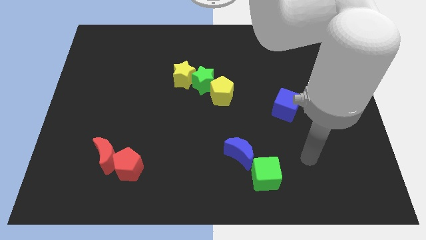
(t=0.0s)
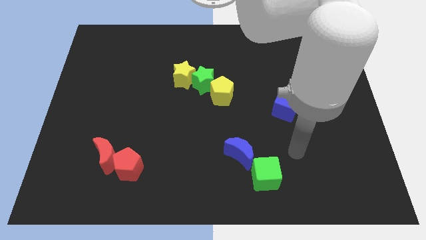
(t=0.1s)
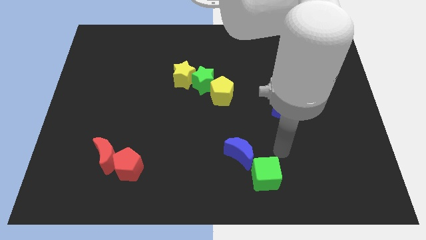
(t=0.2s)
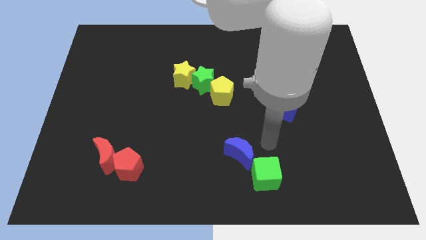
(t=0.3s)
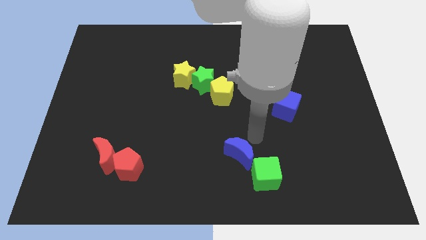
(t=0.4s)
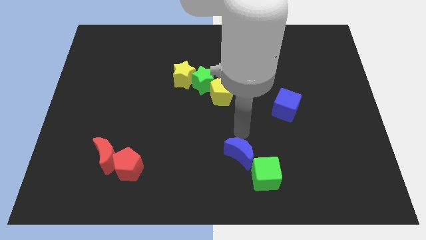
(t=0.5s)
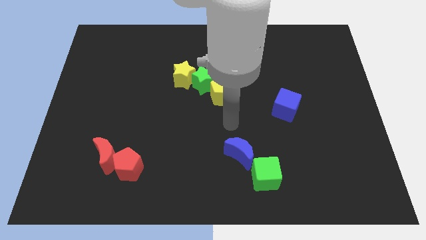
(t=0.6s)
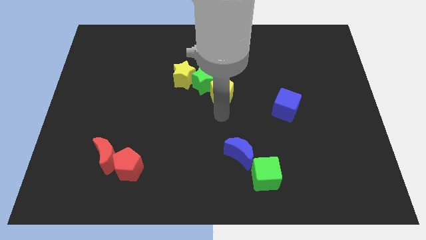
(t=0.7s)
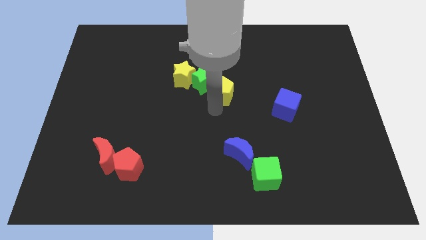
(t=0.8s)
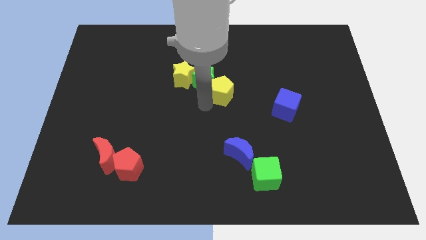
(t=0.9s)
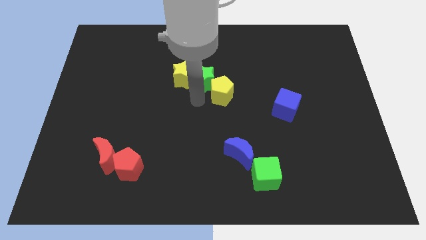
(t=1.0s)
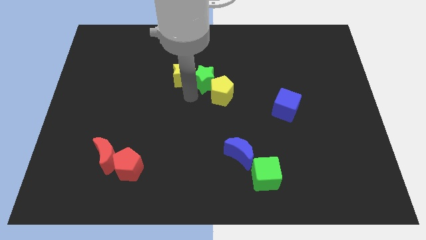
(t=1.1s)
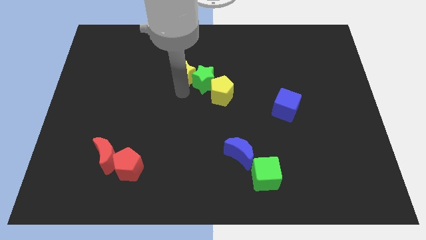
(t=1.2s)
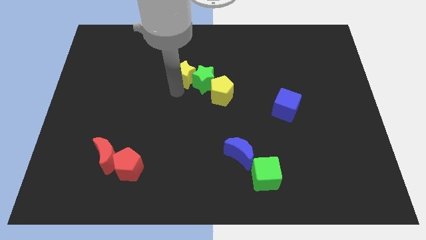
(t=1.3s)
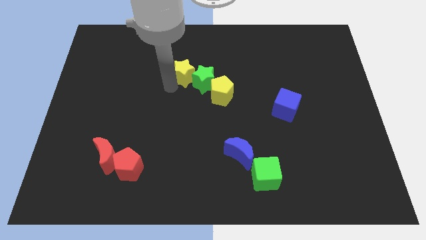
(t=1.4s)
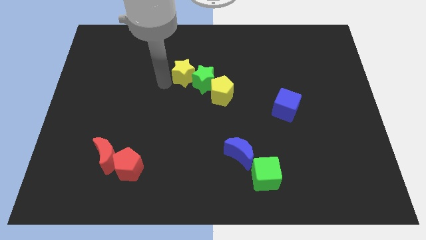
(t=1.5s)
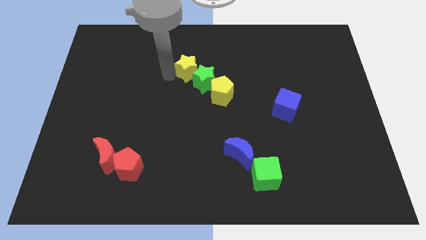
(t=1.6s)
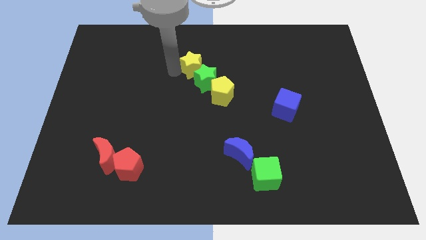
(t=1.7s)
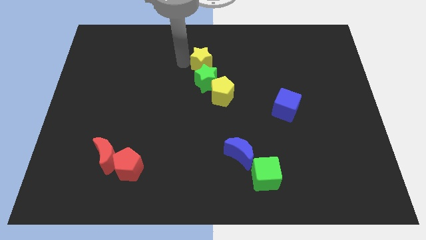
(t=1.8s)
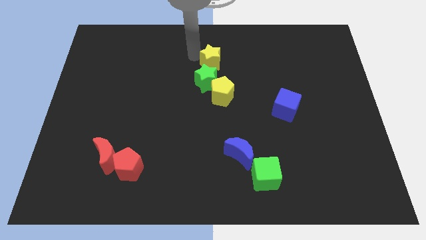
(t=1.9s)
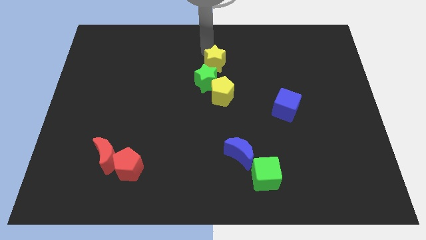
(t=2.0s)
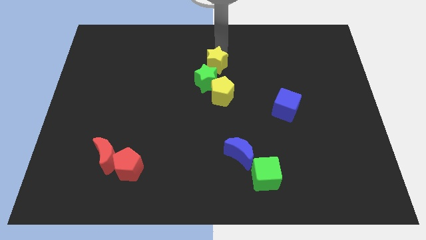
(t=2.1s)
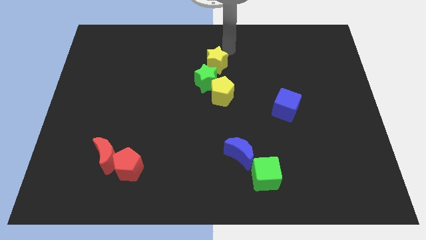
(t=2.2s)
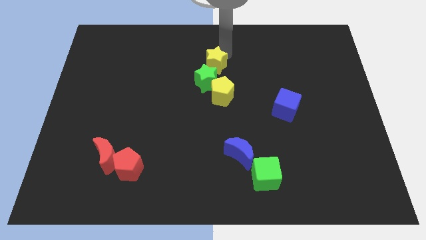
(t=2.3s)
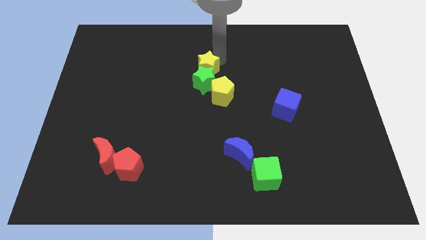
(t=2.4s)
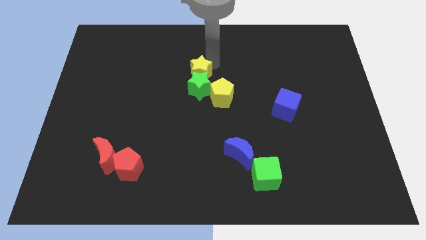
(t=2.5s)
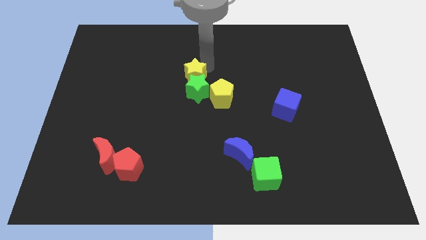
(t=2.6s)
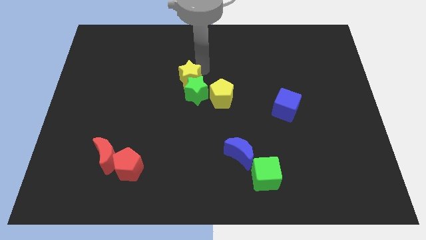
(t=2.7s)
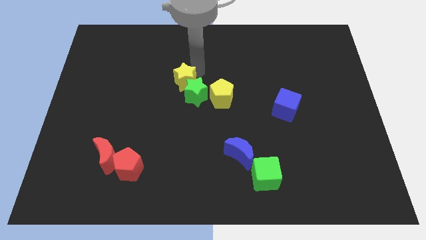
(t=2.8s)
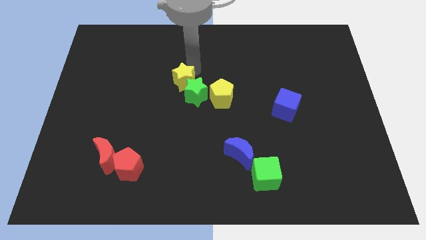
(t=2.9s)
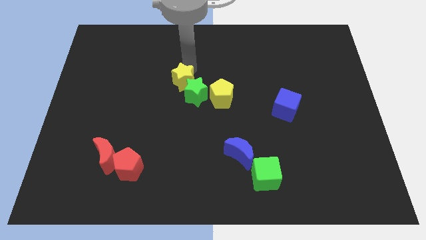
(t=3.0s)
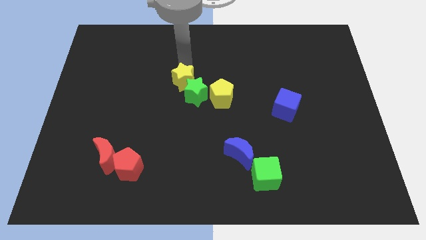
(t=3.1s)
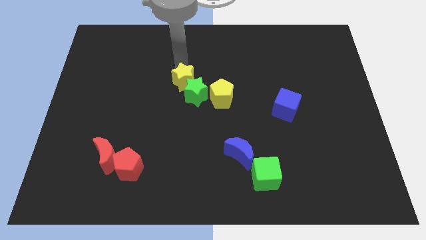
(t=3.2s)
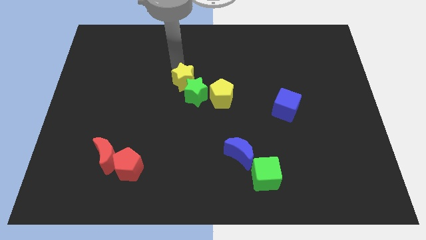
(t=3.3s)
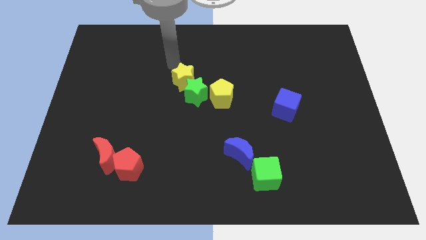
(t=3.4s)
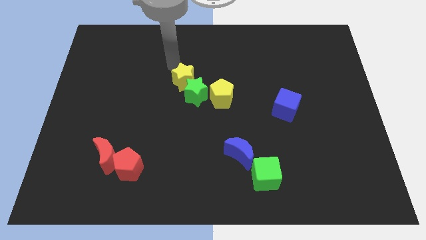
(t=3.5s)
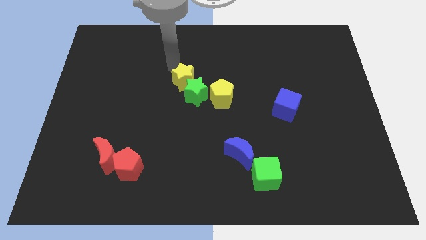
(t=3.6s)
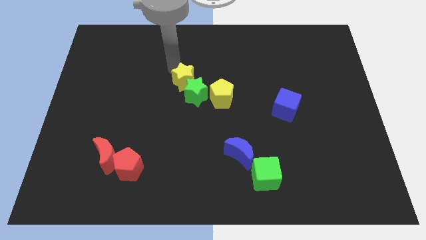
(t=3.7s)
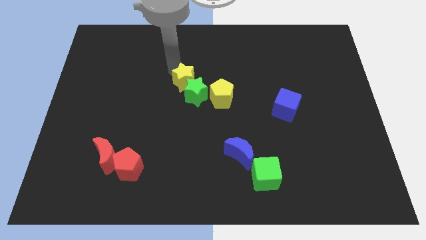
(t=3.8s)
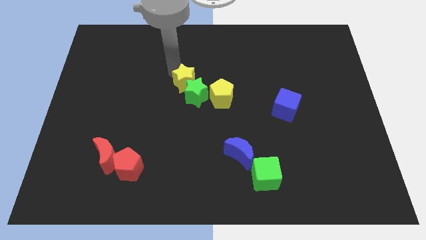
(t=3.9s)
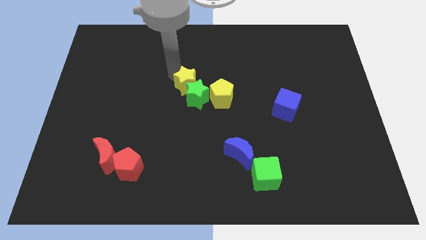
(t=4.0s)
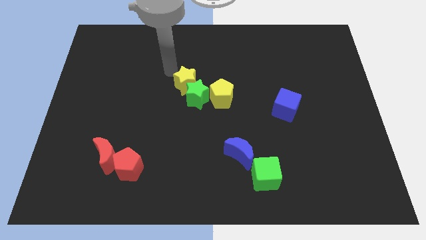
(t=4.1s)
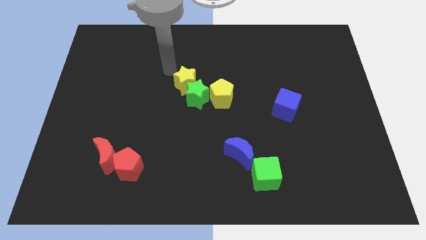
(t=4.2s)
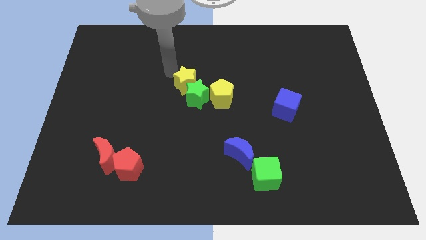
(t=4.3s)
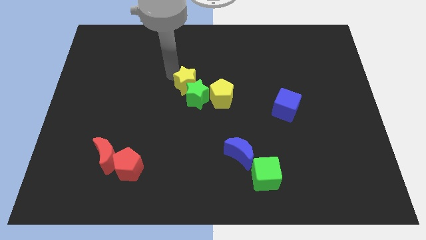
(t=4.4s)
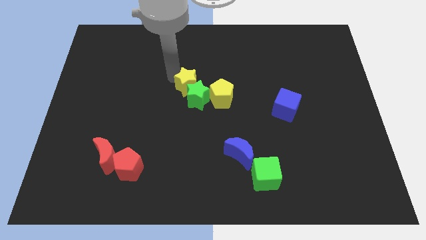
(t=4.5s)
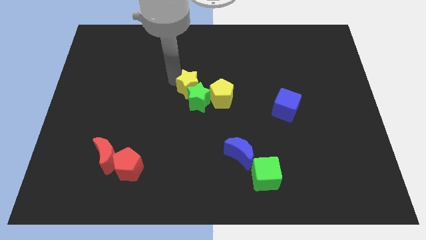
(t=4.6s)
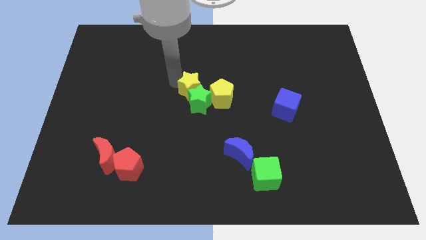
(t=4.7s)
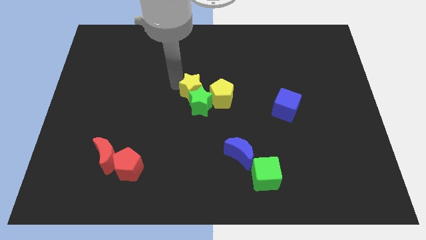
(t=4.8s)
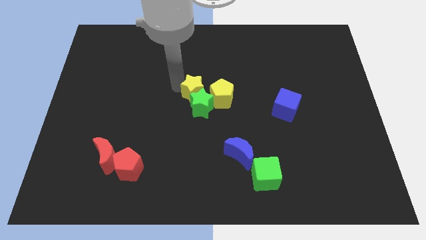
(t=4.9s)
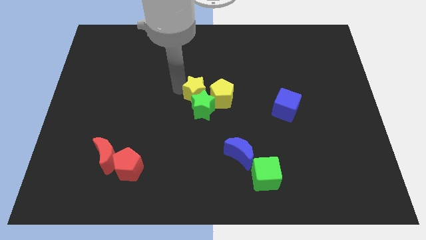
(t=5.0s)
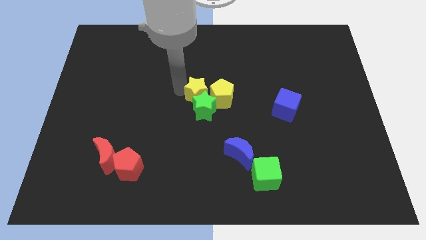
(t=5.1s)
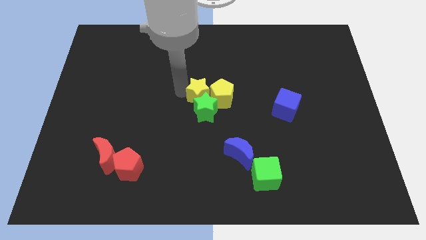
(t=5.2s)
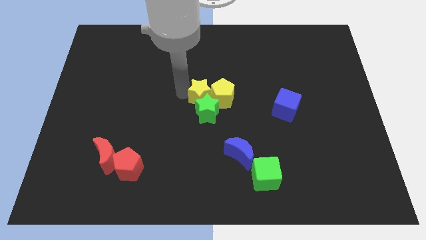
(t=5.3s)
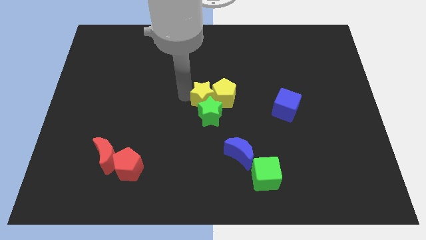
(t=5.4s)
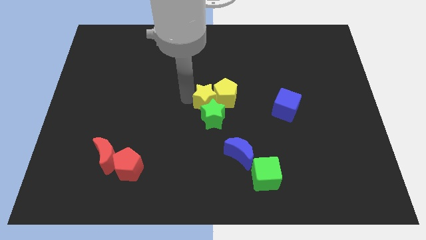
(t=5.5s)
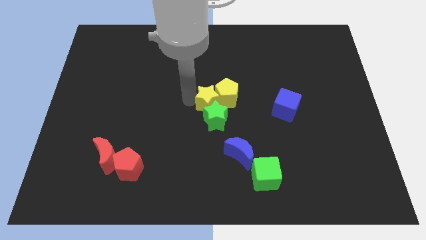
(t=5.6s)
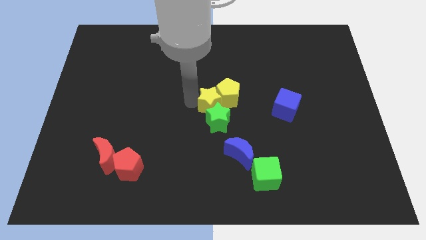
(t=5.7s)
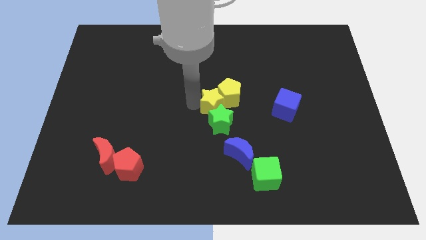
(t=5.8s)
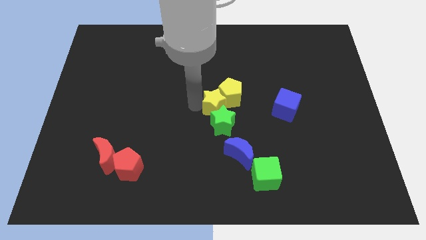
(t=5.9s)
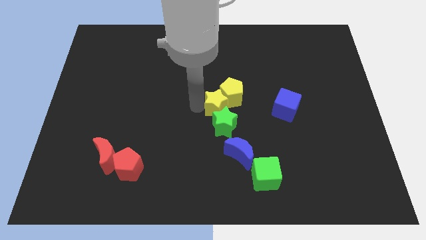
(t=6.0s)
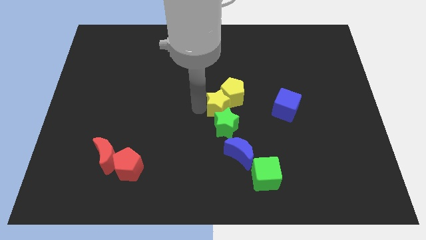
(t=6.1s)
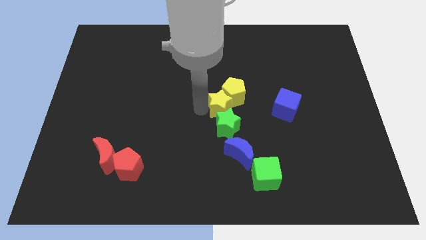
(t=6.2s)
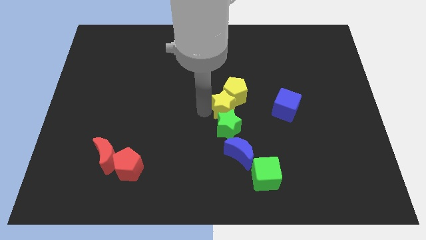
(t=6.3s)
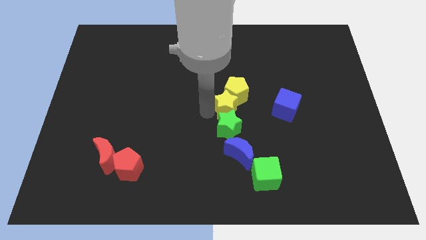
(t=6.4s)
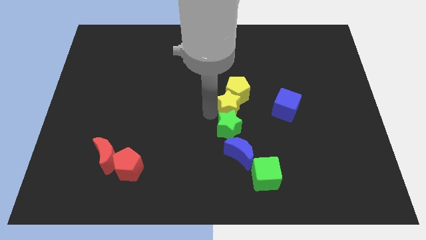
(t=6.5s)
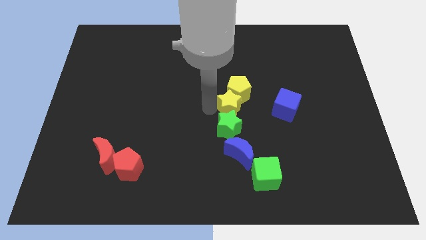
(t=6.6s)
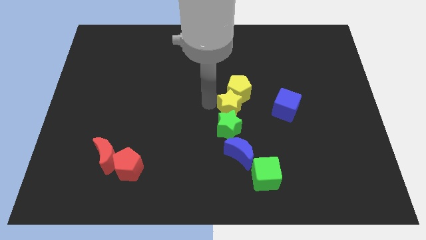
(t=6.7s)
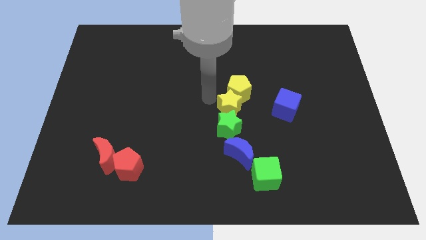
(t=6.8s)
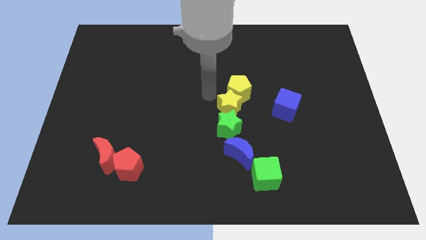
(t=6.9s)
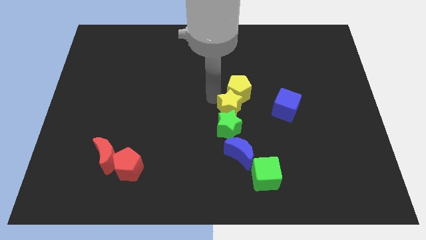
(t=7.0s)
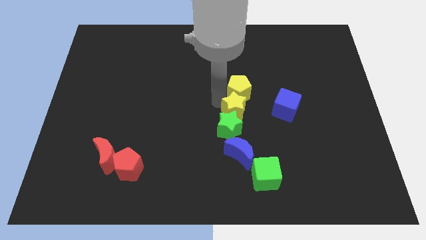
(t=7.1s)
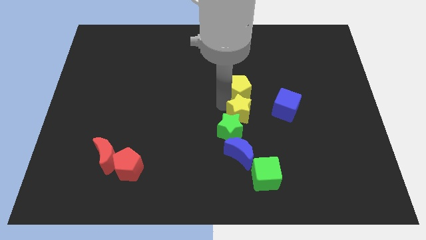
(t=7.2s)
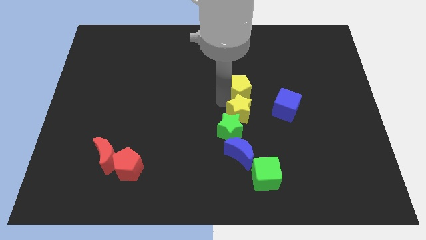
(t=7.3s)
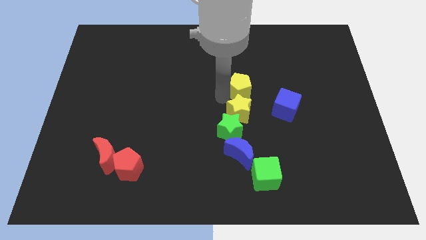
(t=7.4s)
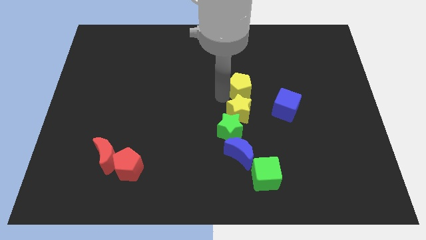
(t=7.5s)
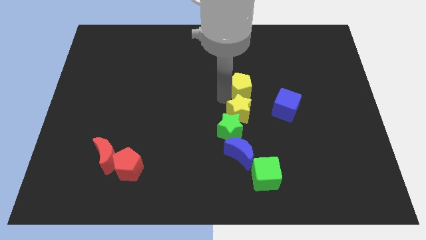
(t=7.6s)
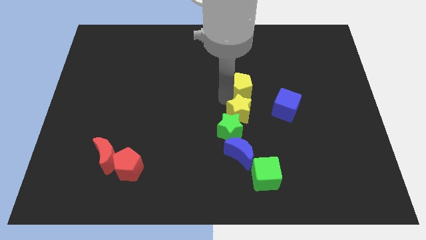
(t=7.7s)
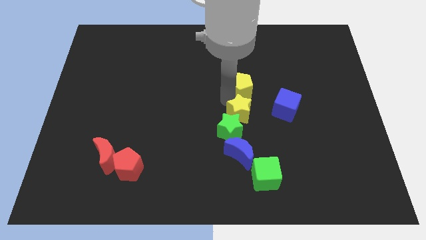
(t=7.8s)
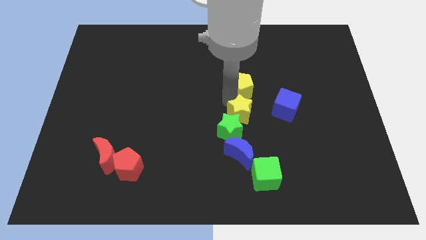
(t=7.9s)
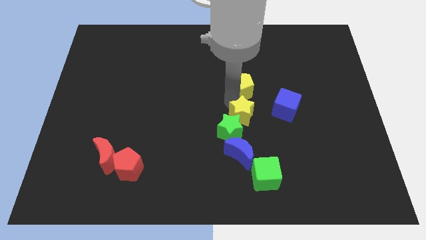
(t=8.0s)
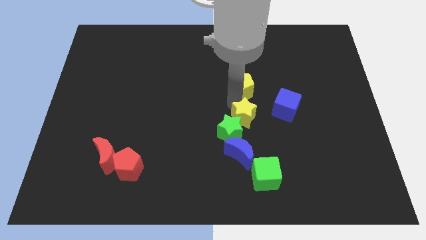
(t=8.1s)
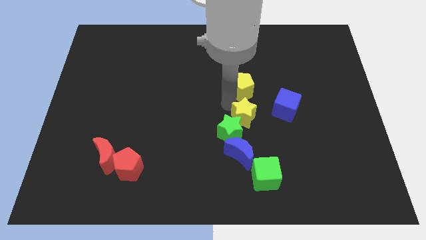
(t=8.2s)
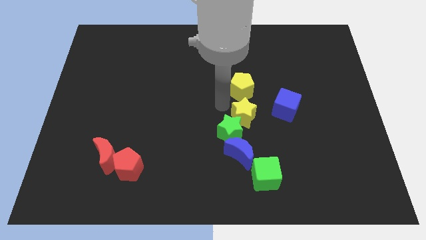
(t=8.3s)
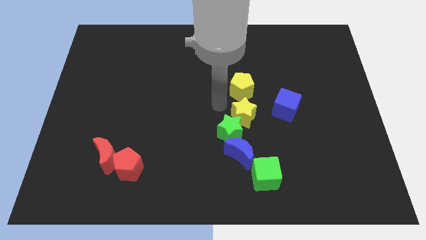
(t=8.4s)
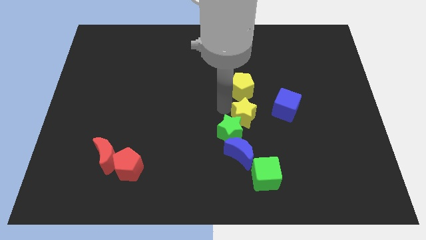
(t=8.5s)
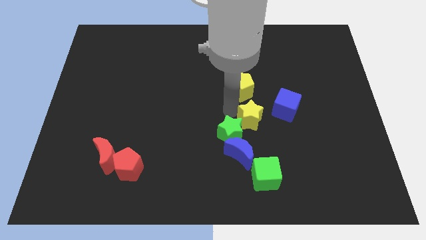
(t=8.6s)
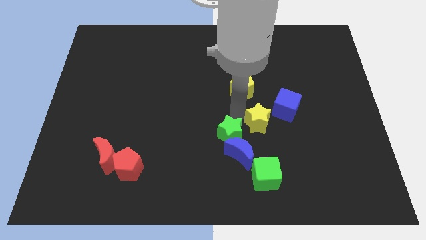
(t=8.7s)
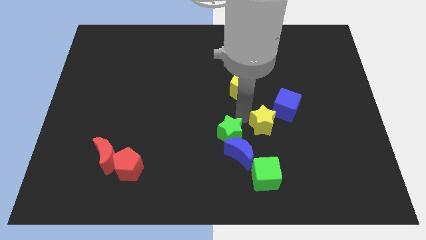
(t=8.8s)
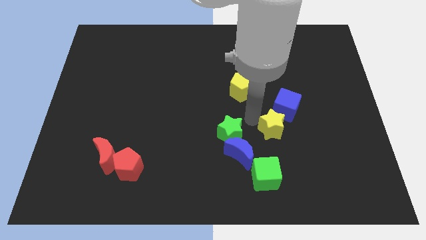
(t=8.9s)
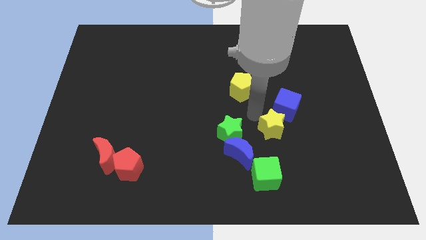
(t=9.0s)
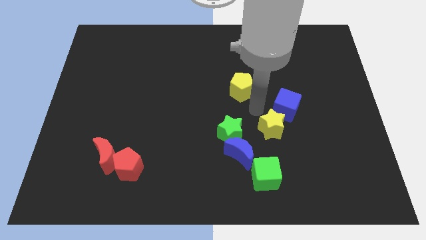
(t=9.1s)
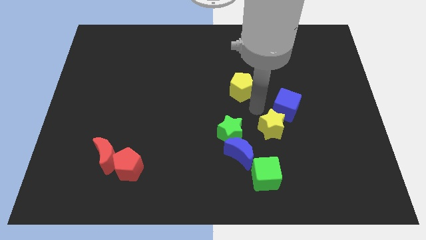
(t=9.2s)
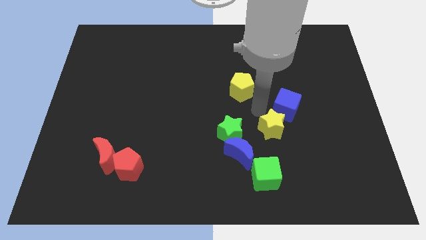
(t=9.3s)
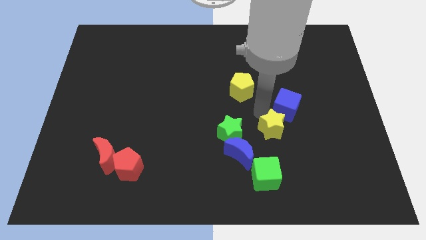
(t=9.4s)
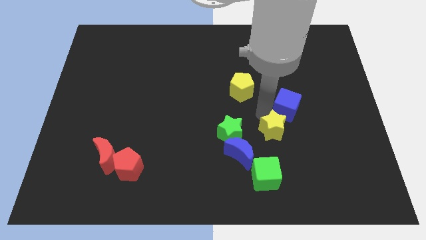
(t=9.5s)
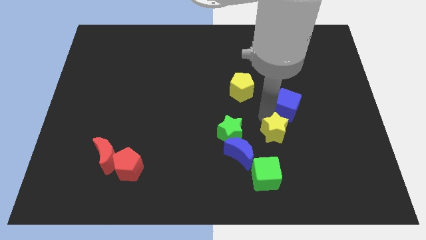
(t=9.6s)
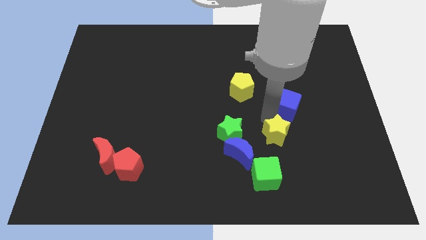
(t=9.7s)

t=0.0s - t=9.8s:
move the yellow star just right of the blue moon
